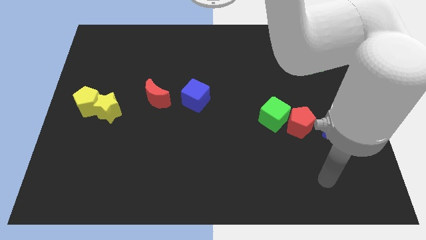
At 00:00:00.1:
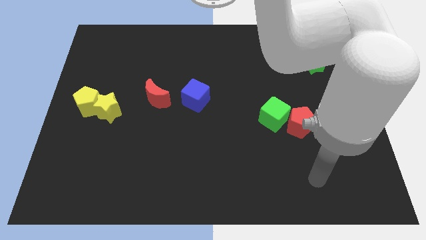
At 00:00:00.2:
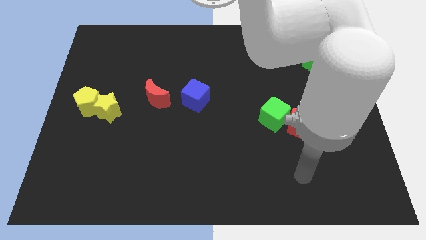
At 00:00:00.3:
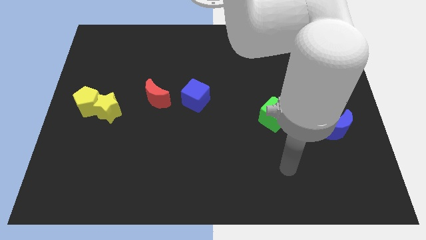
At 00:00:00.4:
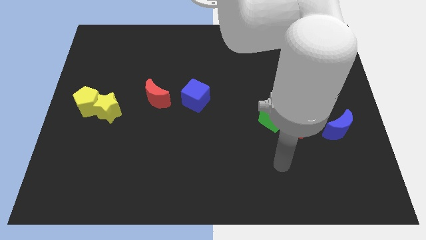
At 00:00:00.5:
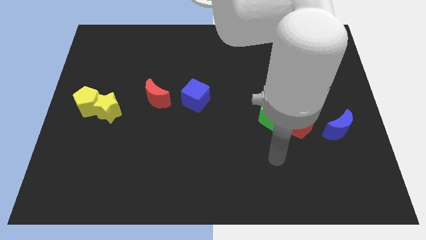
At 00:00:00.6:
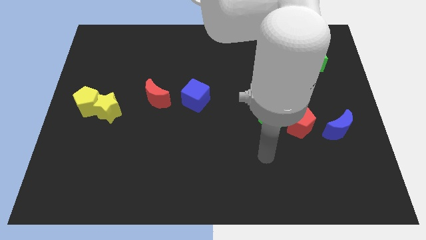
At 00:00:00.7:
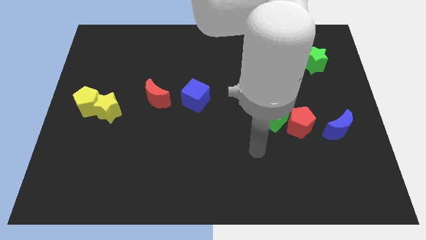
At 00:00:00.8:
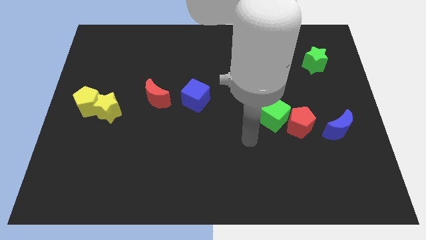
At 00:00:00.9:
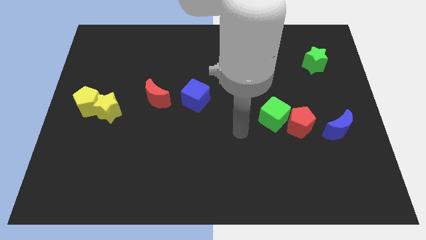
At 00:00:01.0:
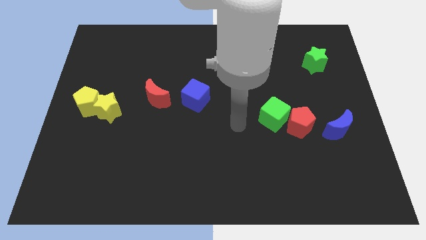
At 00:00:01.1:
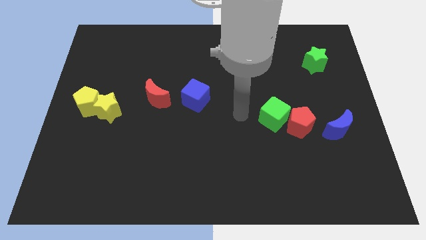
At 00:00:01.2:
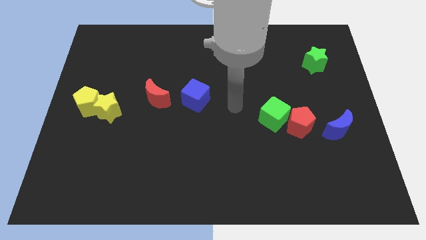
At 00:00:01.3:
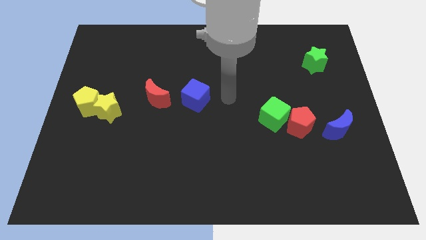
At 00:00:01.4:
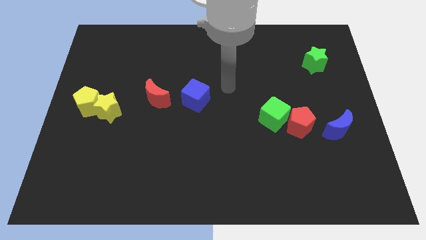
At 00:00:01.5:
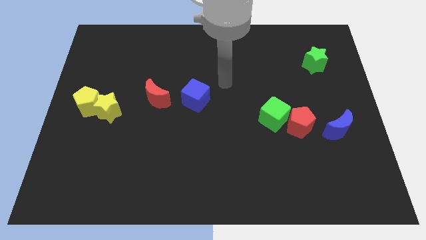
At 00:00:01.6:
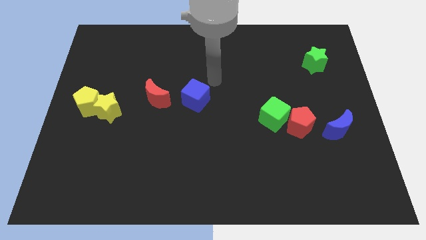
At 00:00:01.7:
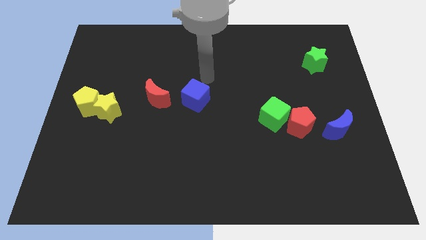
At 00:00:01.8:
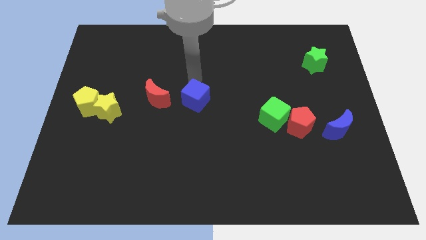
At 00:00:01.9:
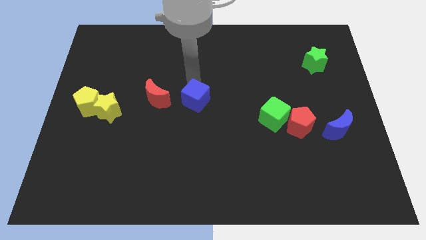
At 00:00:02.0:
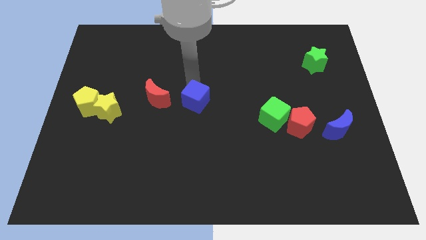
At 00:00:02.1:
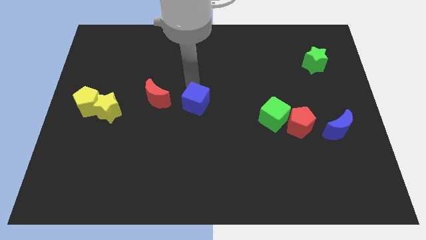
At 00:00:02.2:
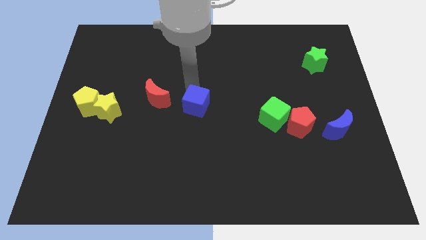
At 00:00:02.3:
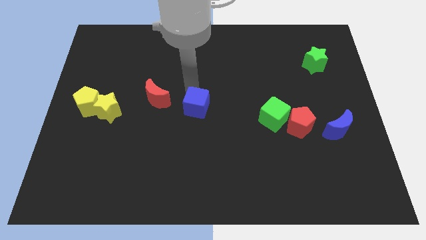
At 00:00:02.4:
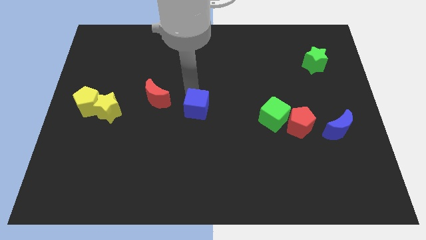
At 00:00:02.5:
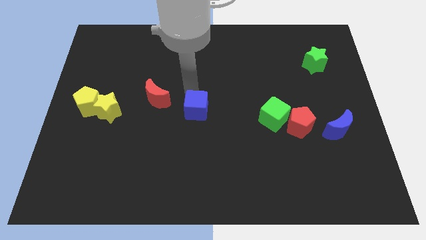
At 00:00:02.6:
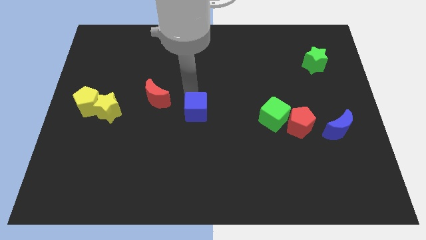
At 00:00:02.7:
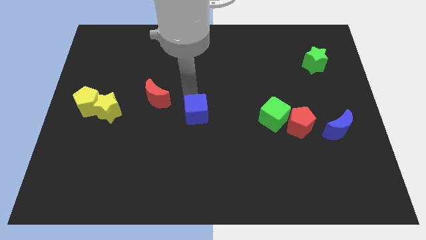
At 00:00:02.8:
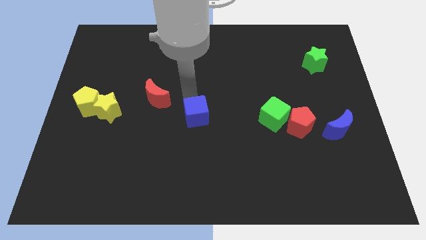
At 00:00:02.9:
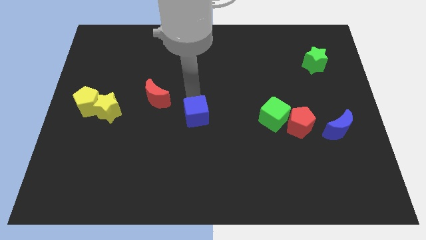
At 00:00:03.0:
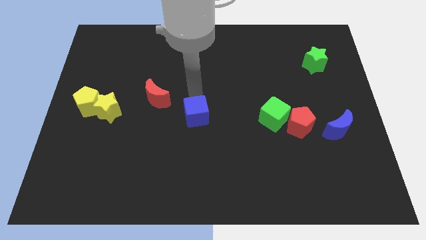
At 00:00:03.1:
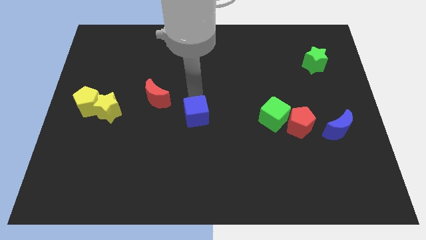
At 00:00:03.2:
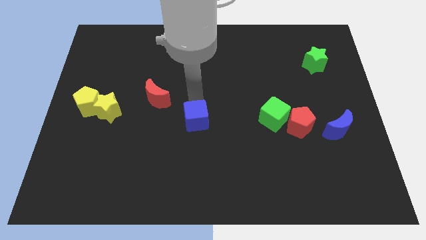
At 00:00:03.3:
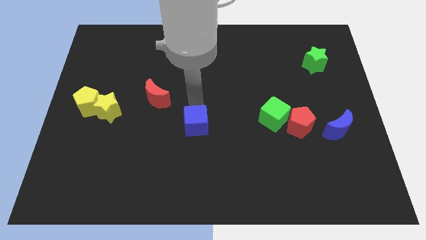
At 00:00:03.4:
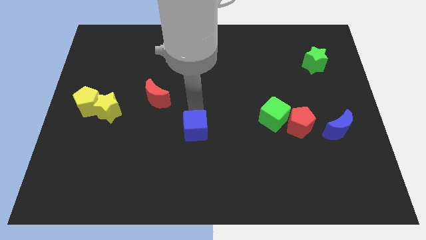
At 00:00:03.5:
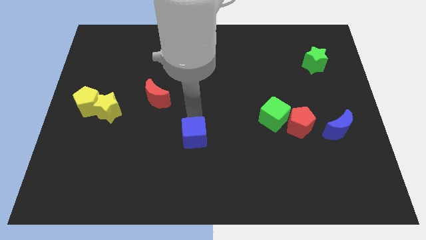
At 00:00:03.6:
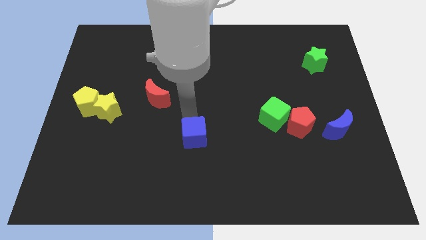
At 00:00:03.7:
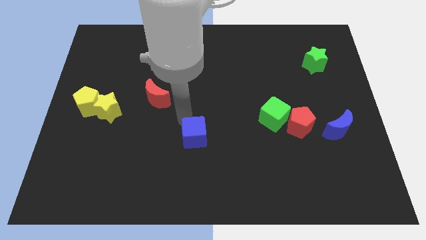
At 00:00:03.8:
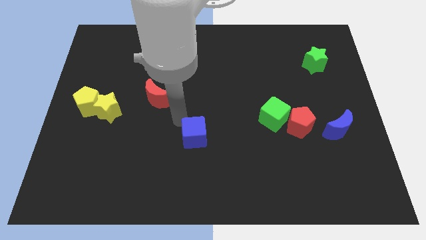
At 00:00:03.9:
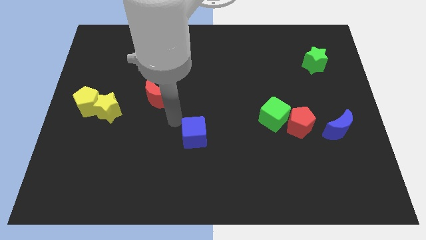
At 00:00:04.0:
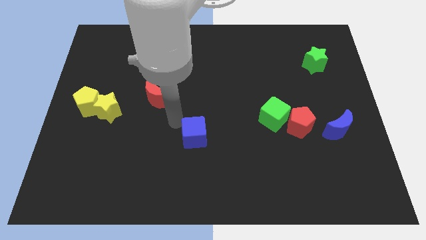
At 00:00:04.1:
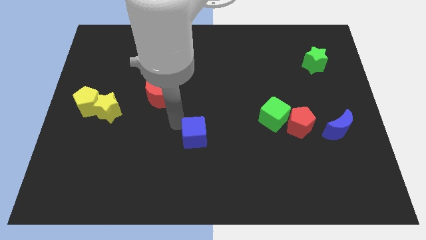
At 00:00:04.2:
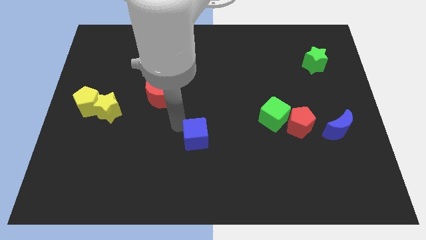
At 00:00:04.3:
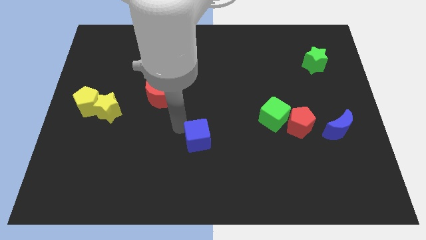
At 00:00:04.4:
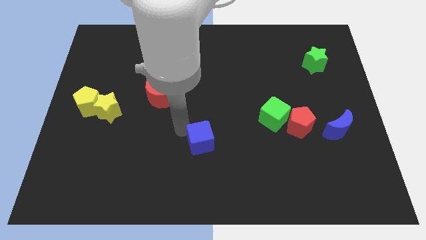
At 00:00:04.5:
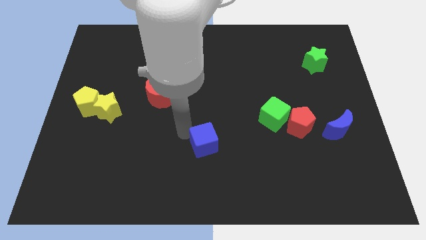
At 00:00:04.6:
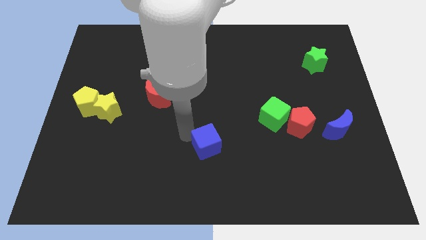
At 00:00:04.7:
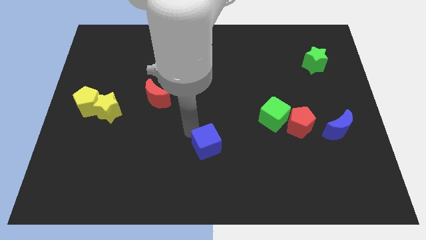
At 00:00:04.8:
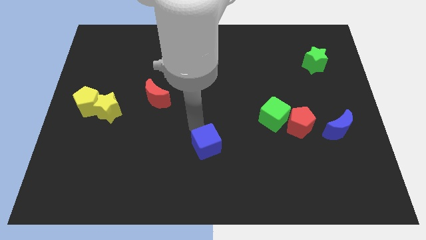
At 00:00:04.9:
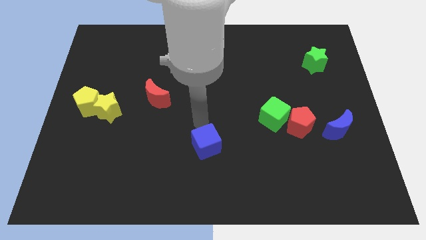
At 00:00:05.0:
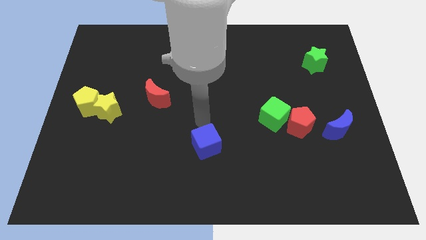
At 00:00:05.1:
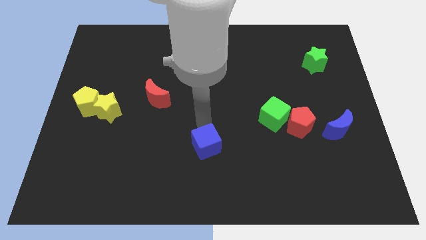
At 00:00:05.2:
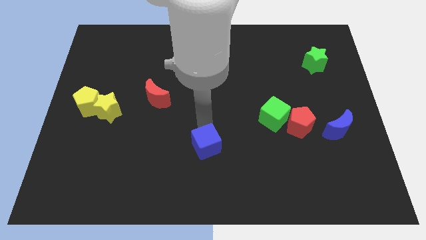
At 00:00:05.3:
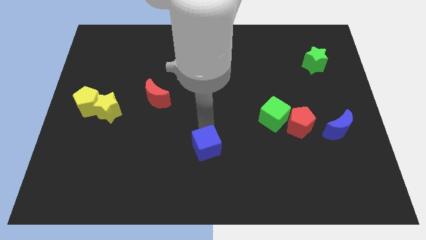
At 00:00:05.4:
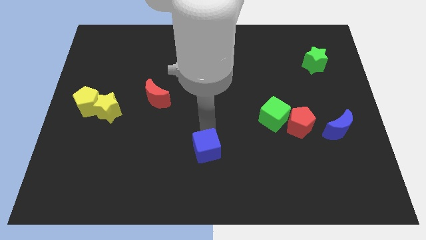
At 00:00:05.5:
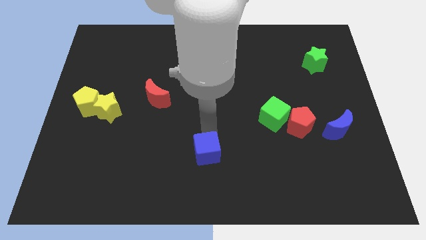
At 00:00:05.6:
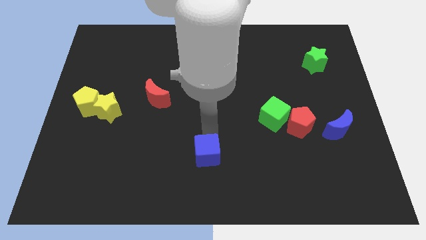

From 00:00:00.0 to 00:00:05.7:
push the blue cube to the bottom side

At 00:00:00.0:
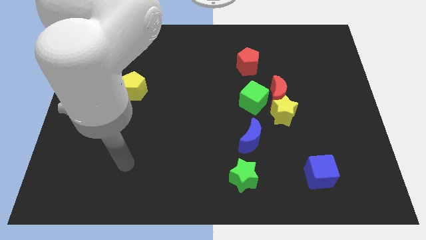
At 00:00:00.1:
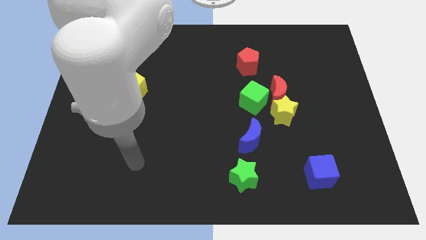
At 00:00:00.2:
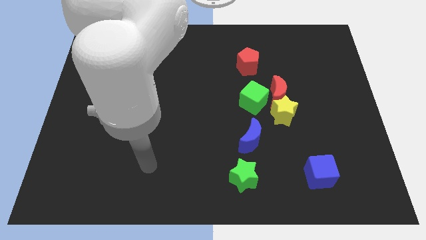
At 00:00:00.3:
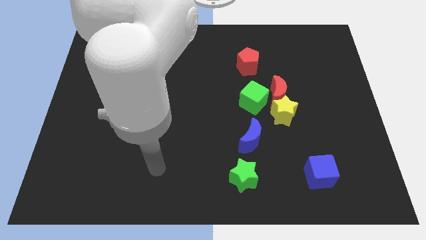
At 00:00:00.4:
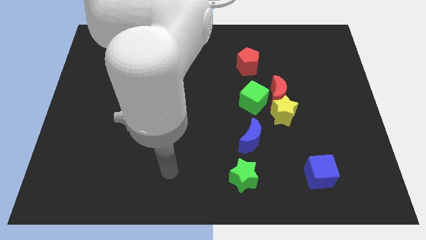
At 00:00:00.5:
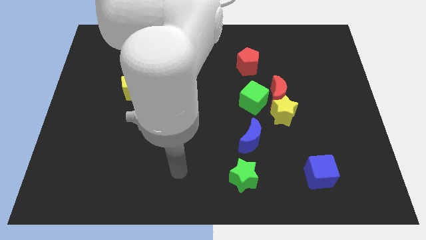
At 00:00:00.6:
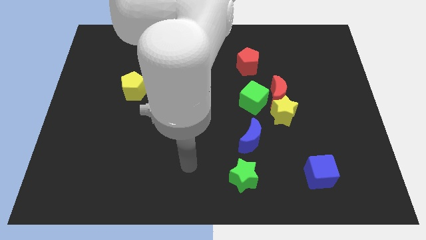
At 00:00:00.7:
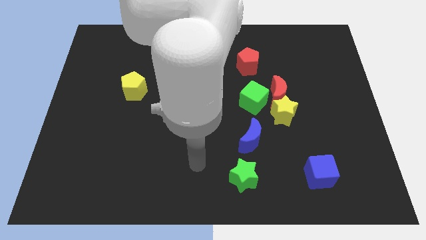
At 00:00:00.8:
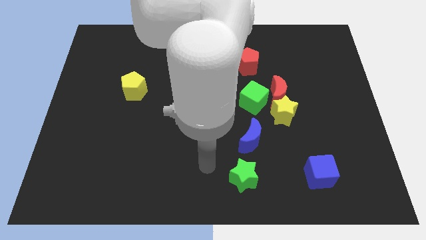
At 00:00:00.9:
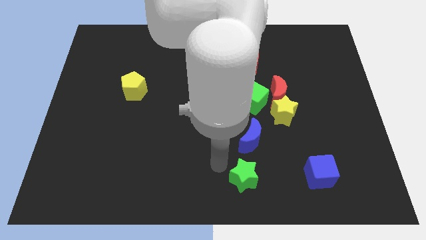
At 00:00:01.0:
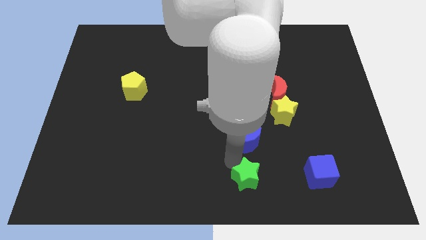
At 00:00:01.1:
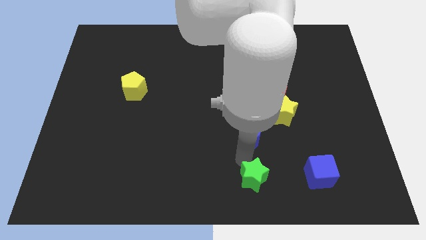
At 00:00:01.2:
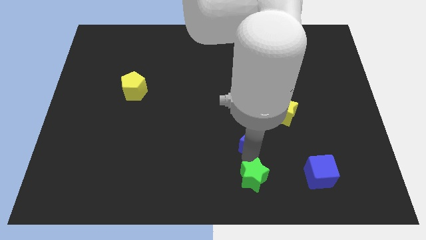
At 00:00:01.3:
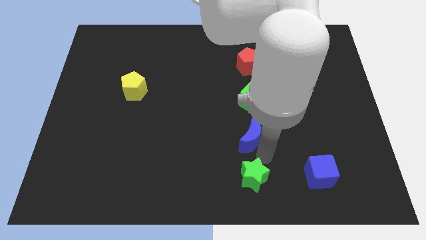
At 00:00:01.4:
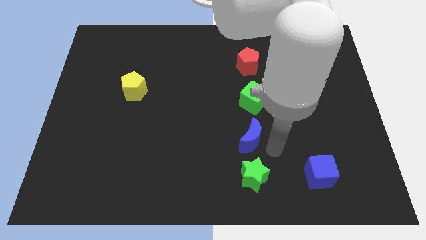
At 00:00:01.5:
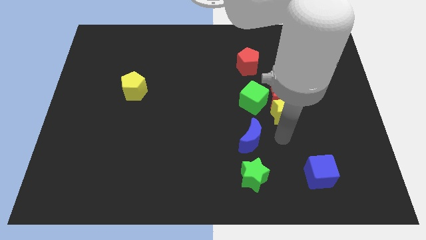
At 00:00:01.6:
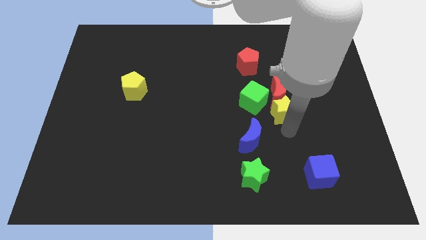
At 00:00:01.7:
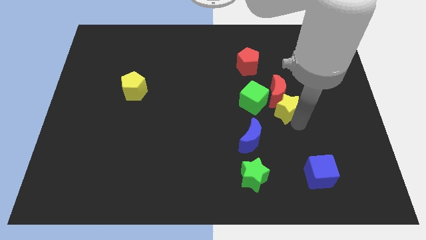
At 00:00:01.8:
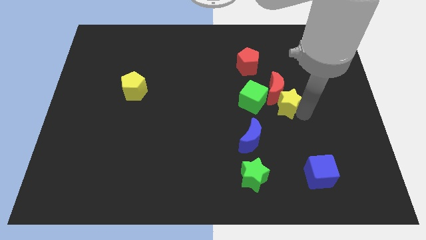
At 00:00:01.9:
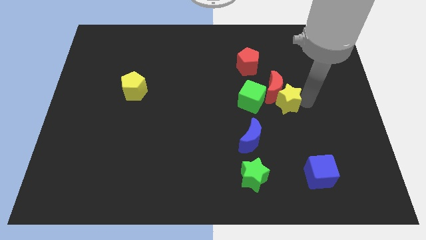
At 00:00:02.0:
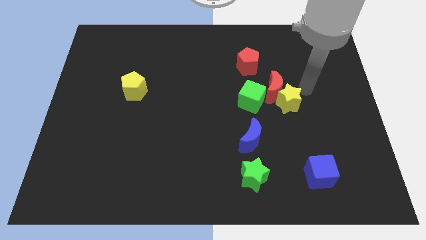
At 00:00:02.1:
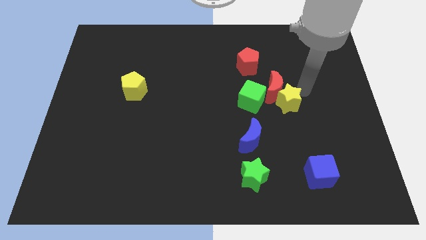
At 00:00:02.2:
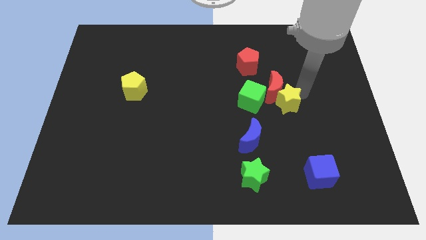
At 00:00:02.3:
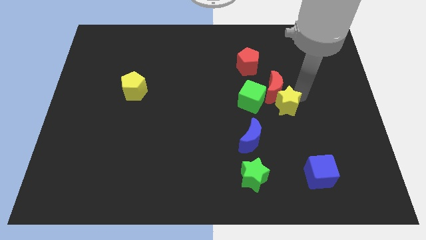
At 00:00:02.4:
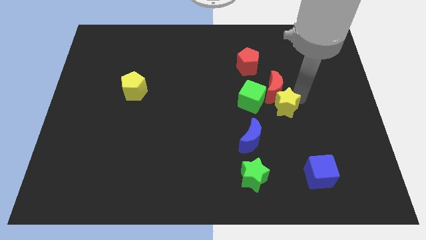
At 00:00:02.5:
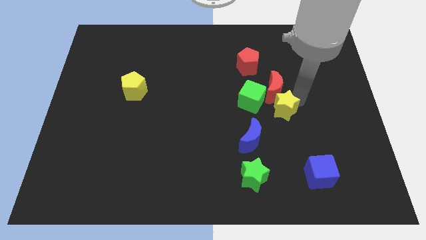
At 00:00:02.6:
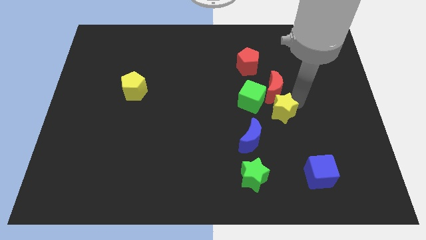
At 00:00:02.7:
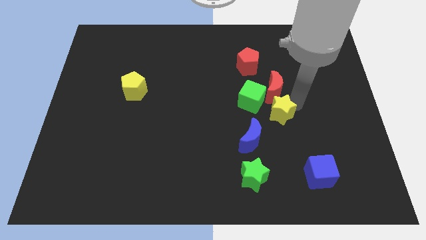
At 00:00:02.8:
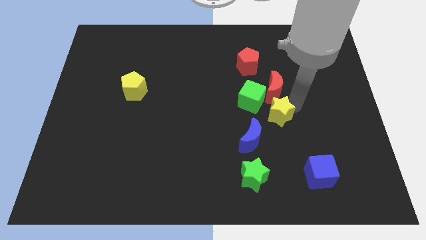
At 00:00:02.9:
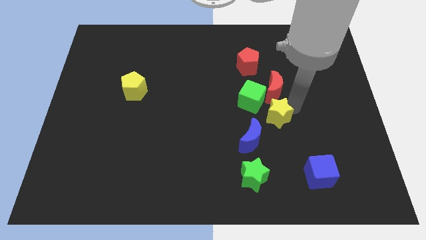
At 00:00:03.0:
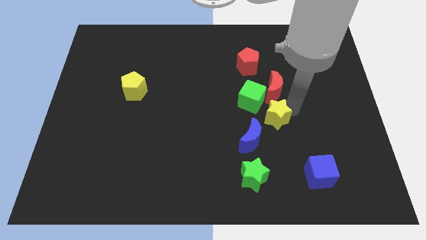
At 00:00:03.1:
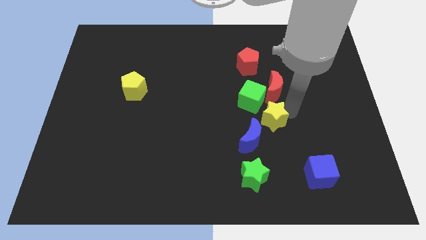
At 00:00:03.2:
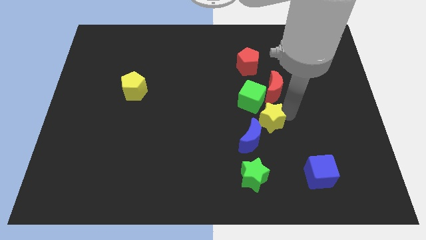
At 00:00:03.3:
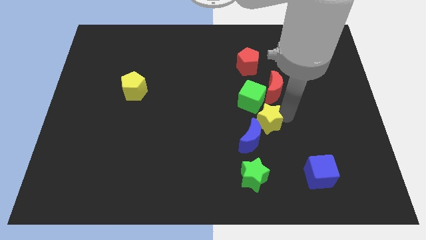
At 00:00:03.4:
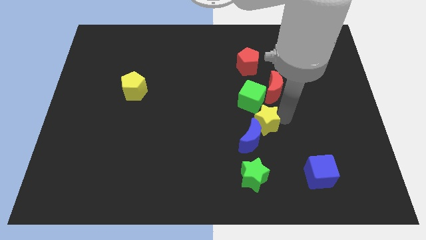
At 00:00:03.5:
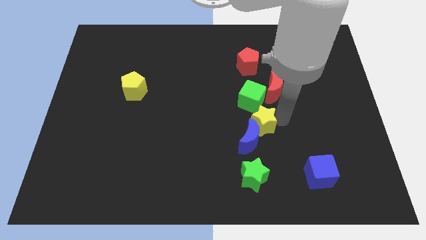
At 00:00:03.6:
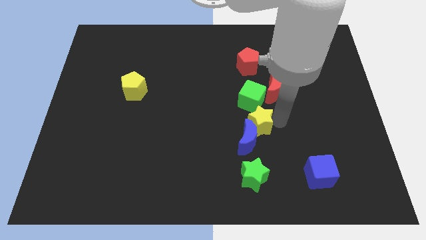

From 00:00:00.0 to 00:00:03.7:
move the yellow star to the middle of the board
